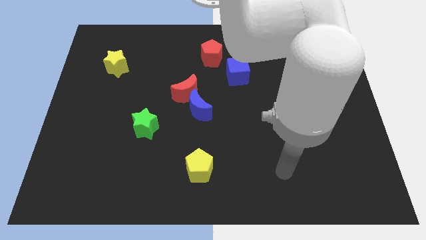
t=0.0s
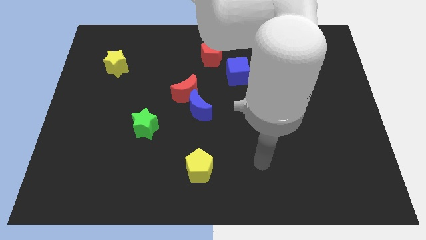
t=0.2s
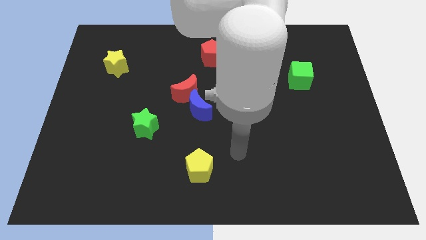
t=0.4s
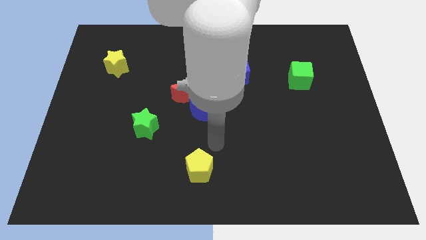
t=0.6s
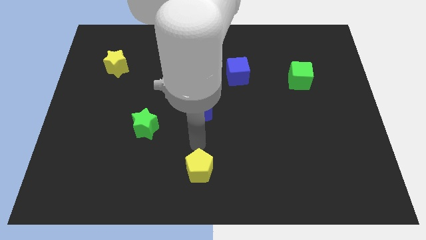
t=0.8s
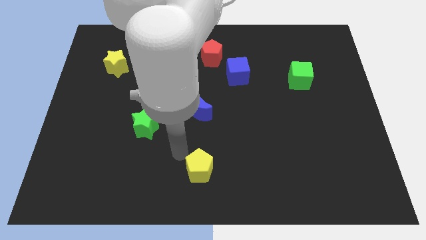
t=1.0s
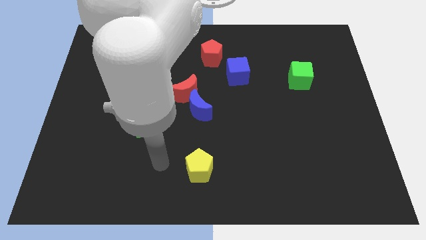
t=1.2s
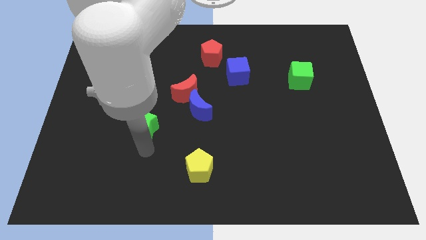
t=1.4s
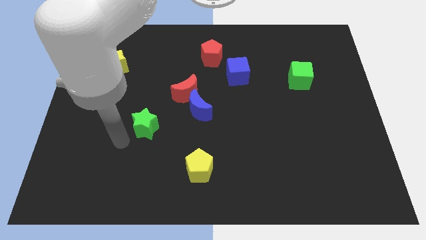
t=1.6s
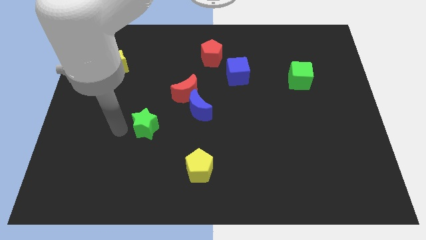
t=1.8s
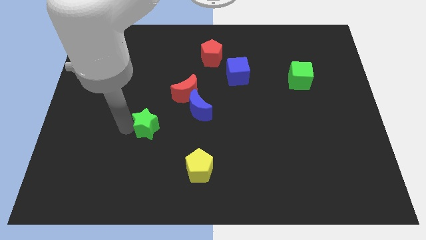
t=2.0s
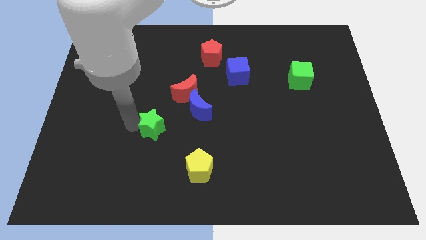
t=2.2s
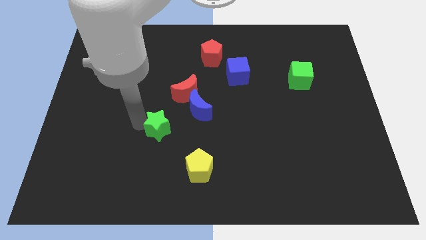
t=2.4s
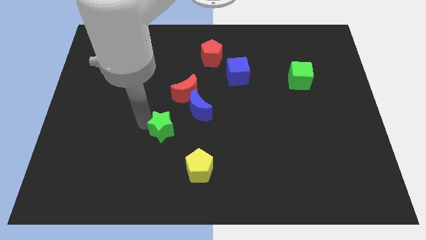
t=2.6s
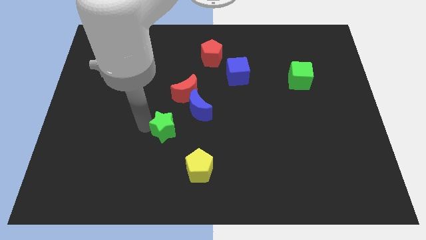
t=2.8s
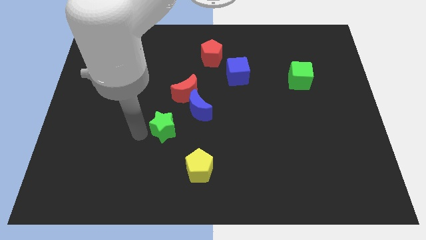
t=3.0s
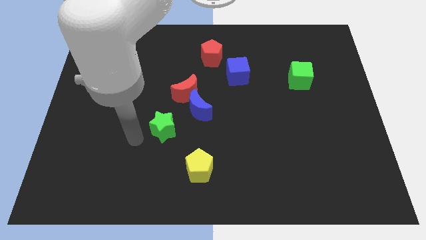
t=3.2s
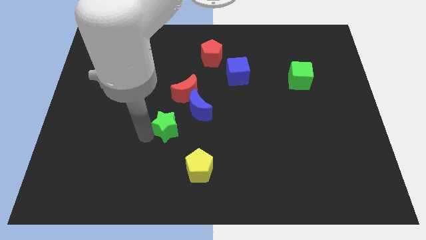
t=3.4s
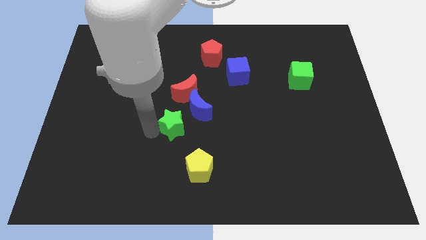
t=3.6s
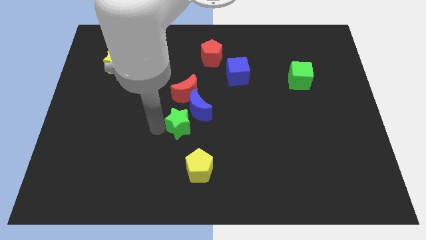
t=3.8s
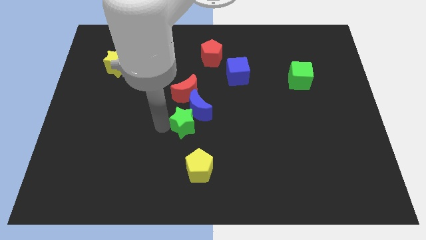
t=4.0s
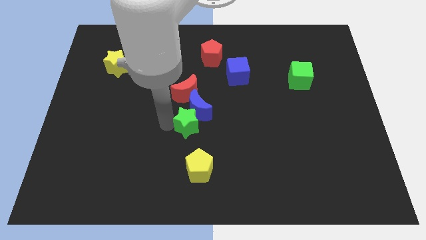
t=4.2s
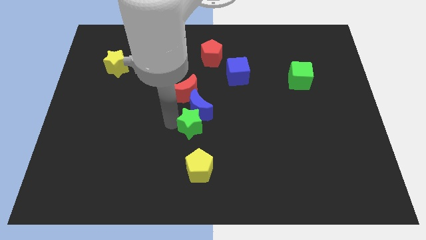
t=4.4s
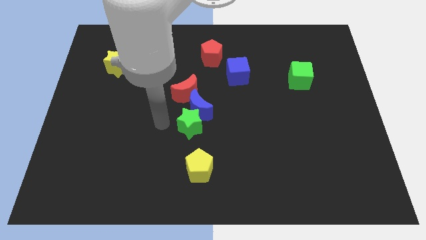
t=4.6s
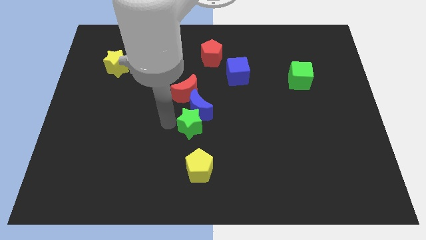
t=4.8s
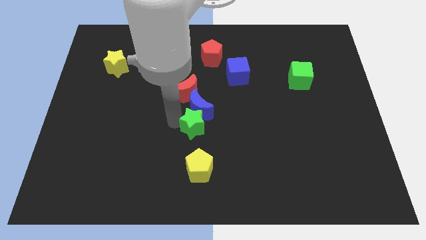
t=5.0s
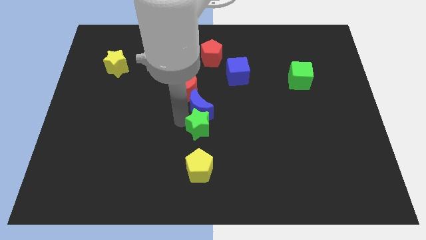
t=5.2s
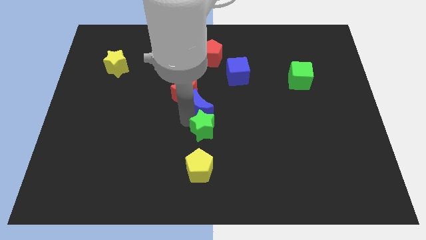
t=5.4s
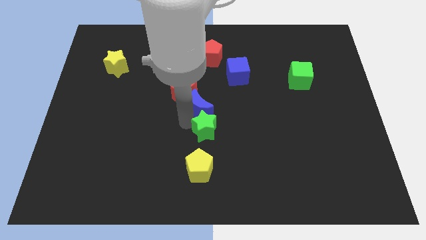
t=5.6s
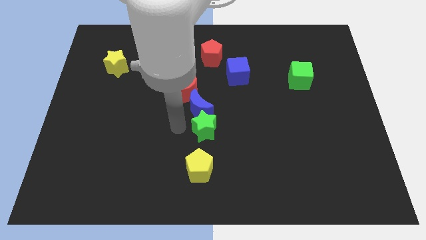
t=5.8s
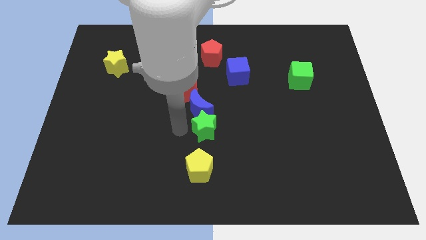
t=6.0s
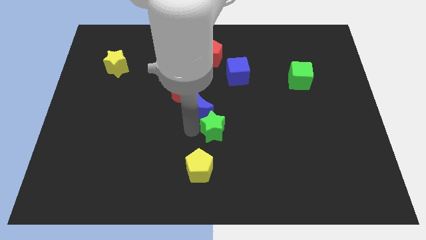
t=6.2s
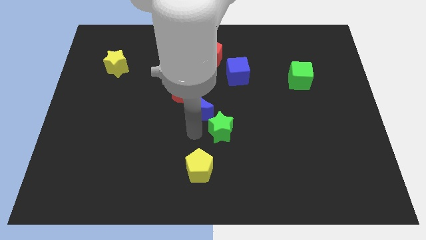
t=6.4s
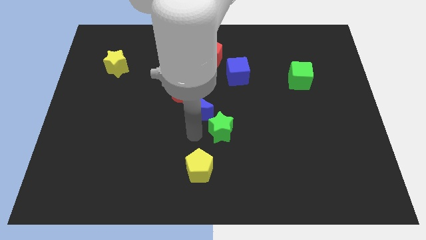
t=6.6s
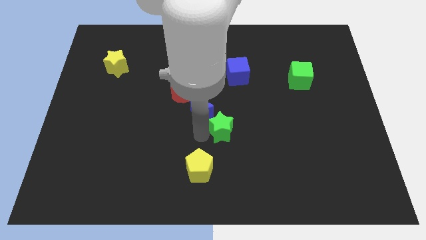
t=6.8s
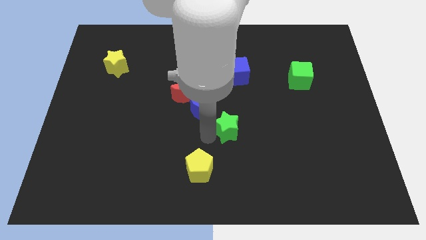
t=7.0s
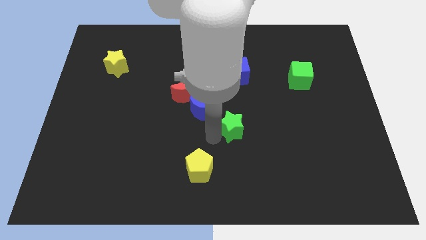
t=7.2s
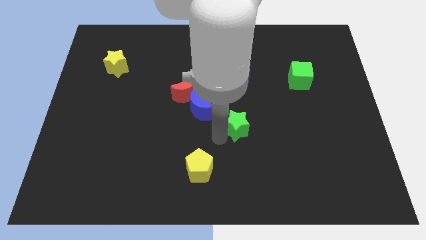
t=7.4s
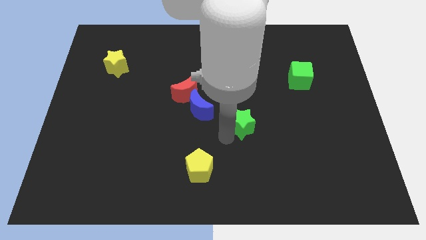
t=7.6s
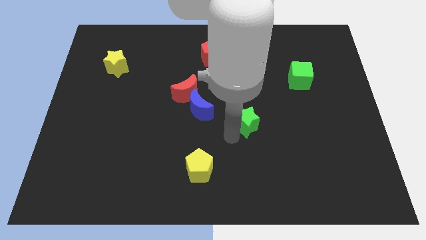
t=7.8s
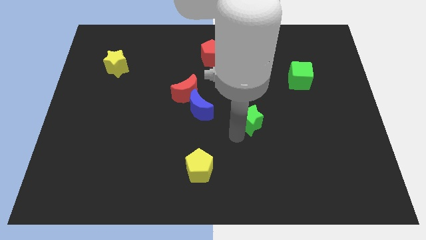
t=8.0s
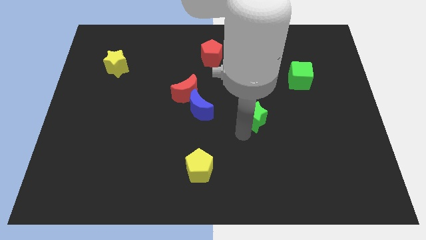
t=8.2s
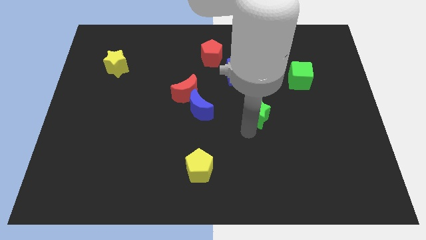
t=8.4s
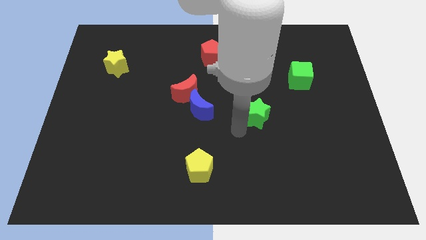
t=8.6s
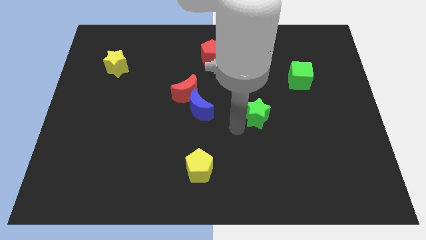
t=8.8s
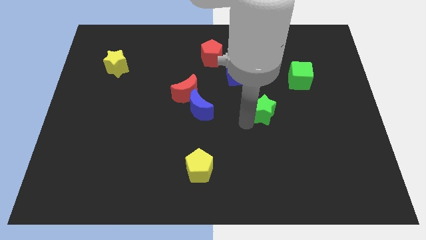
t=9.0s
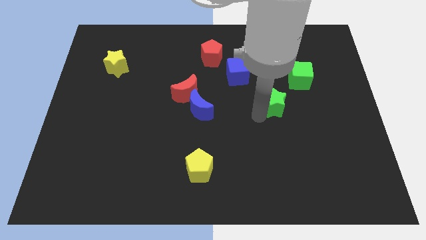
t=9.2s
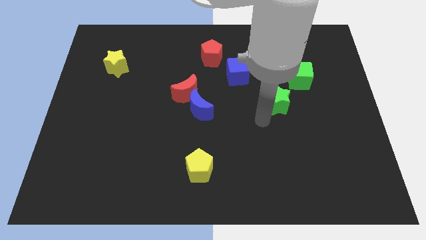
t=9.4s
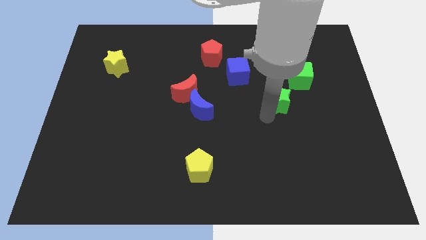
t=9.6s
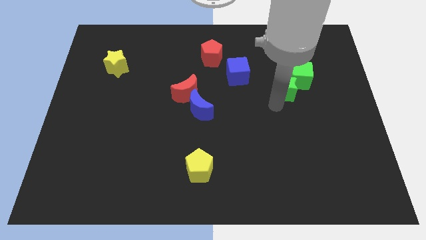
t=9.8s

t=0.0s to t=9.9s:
put the green star to the green cube

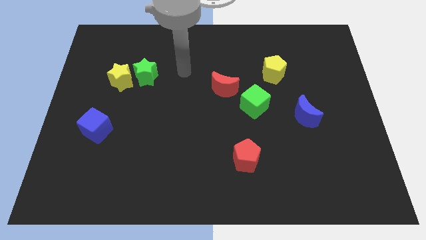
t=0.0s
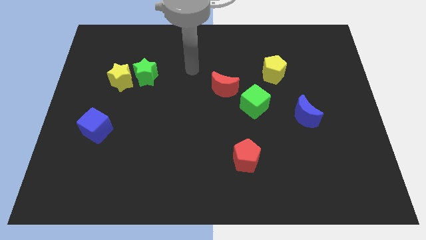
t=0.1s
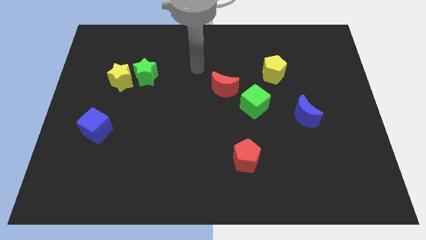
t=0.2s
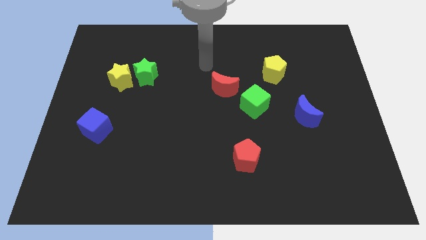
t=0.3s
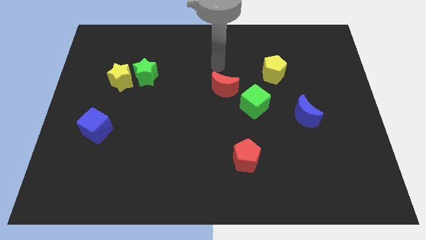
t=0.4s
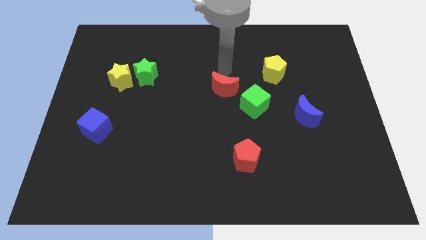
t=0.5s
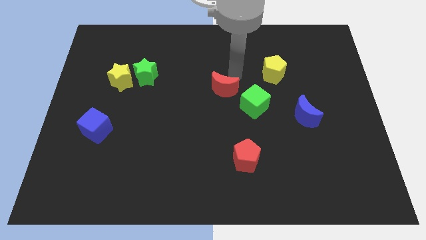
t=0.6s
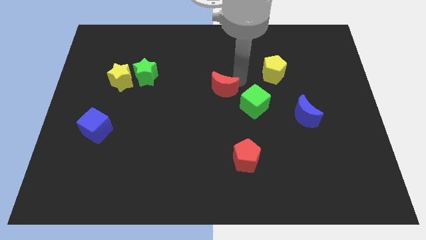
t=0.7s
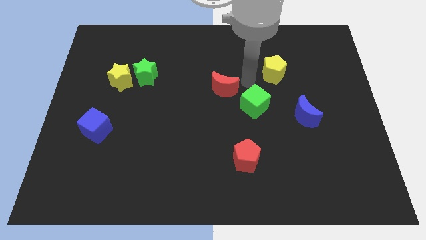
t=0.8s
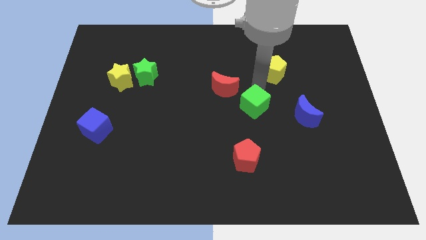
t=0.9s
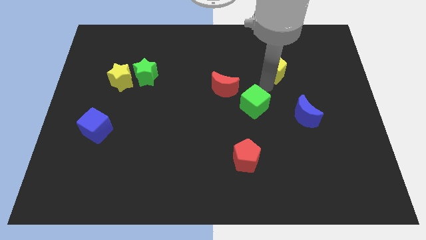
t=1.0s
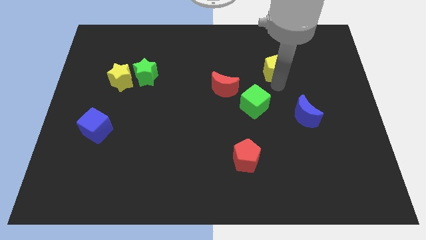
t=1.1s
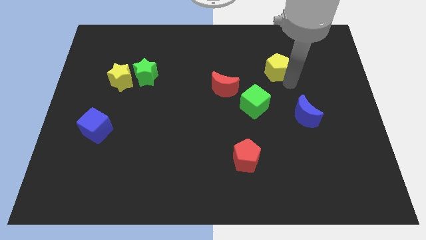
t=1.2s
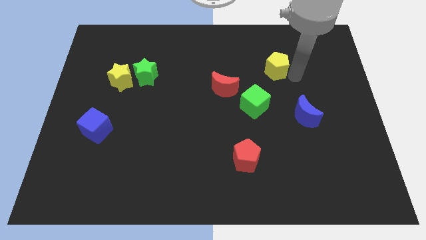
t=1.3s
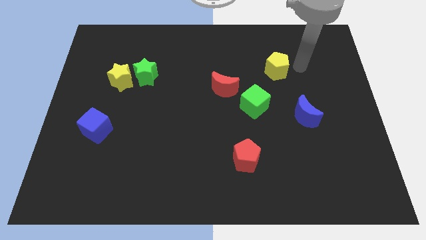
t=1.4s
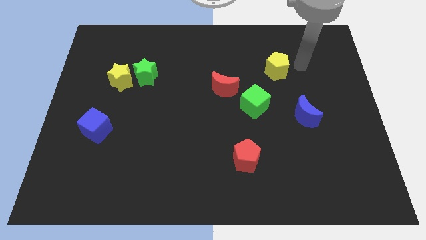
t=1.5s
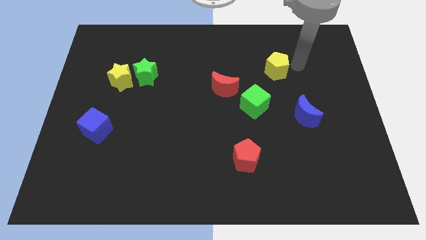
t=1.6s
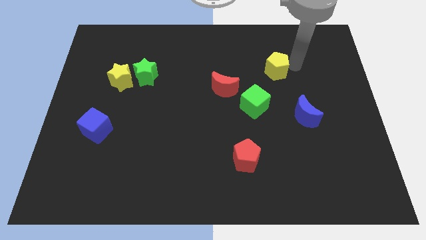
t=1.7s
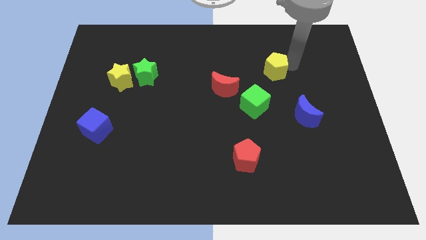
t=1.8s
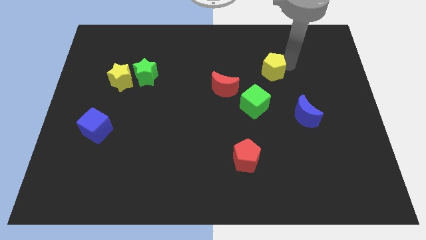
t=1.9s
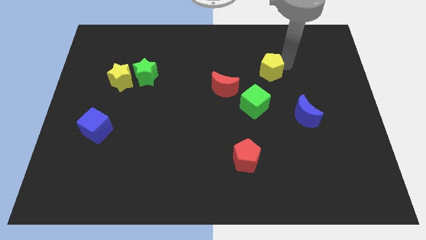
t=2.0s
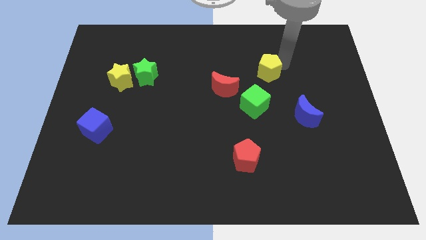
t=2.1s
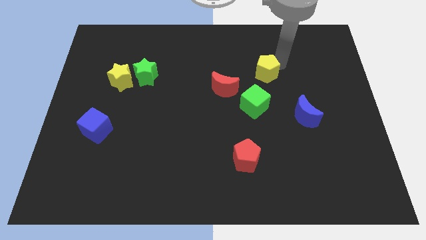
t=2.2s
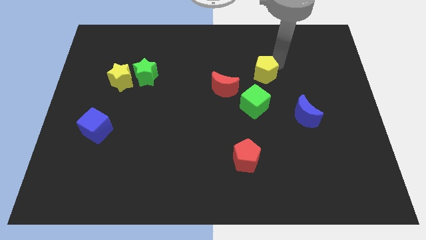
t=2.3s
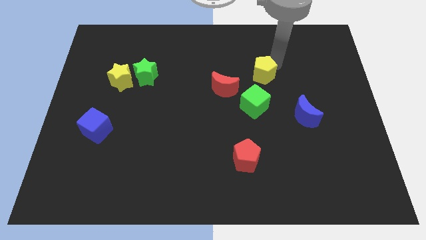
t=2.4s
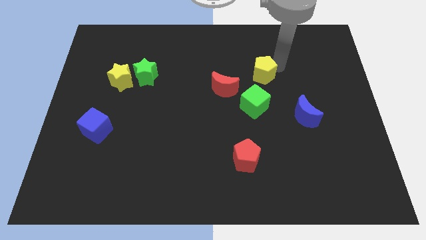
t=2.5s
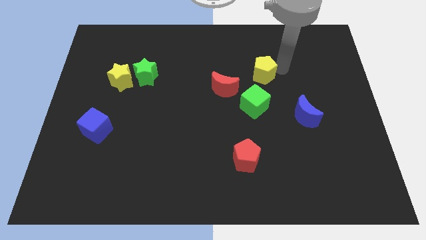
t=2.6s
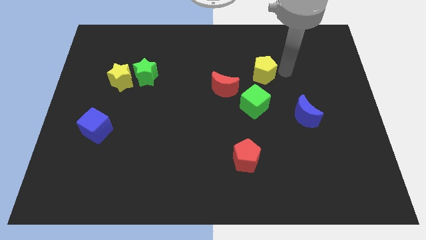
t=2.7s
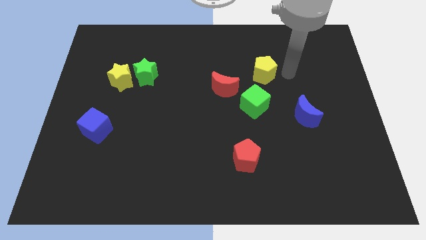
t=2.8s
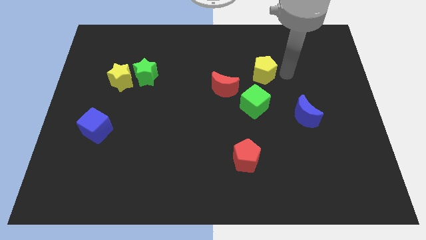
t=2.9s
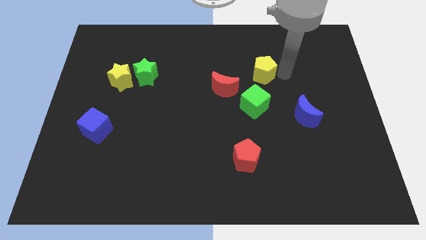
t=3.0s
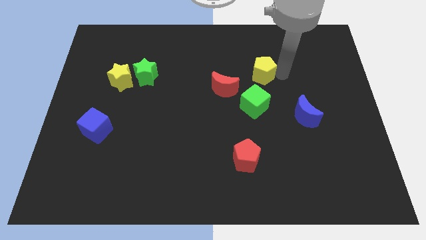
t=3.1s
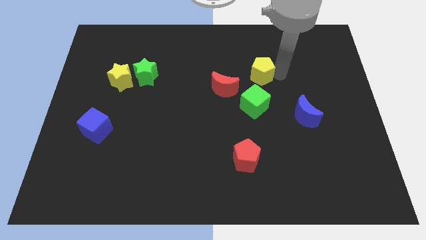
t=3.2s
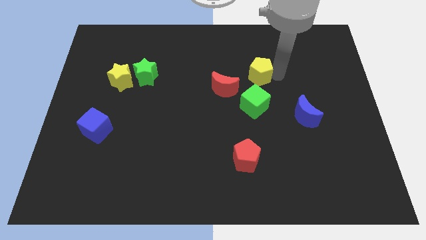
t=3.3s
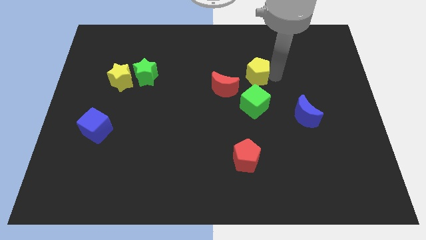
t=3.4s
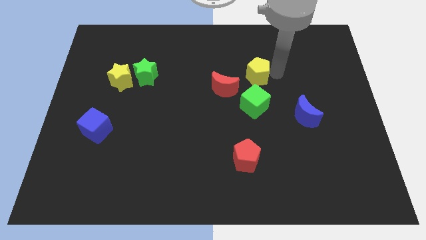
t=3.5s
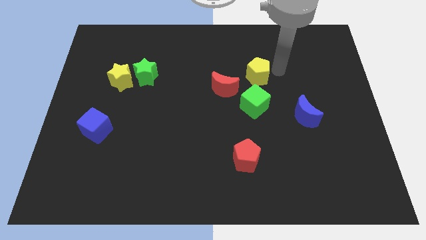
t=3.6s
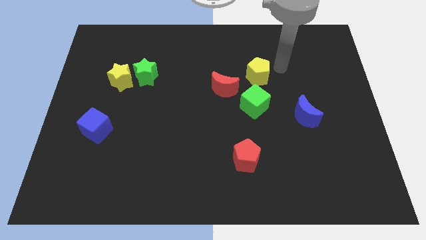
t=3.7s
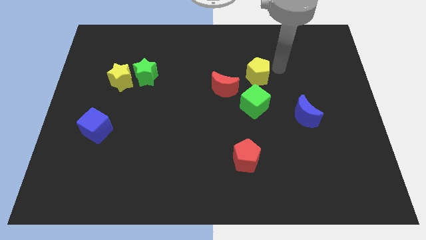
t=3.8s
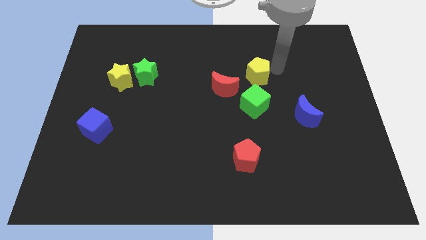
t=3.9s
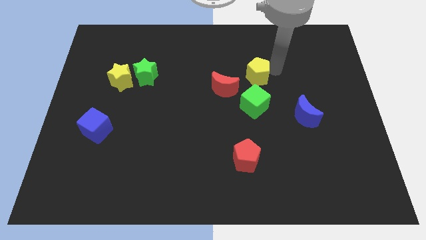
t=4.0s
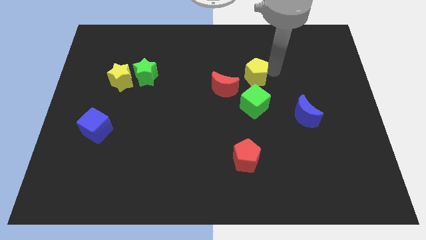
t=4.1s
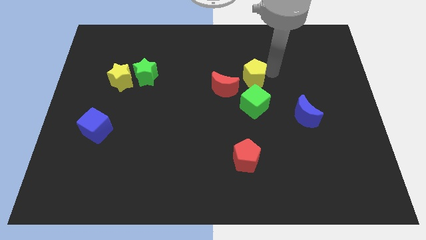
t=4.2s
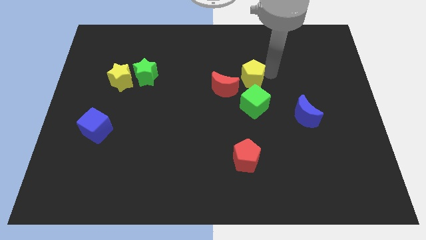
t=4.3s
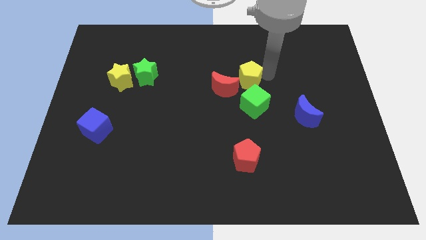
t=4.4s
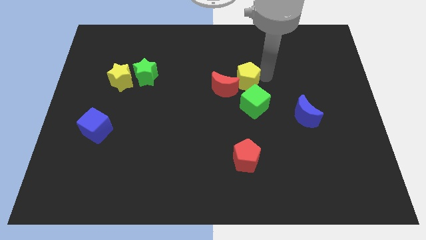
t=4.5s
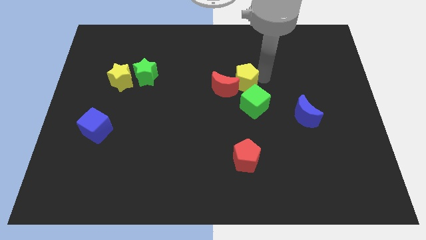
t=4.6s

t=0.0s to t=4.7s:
move the yellow pentagon close to the red moon
